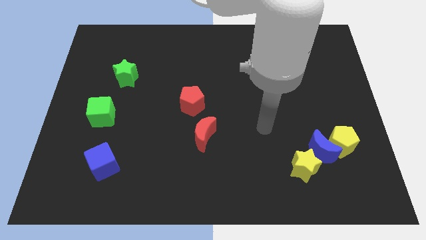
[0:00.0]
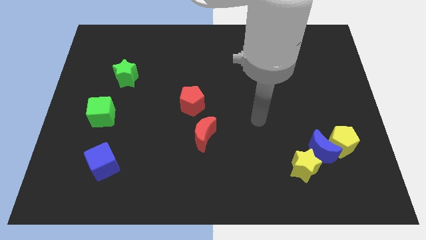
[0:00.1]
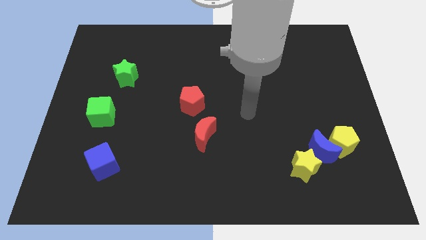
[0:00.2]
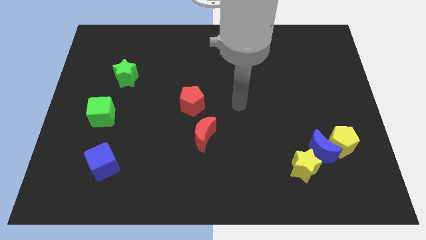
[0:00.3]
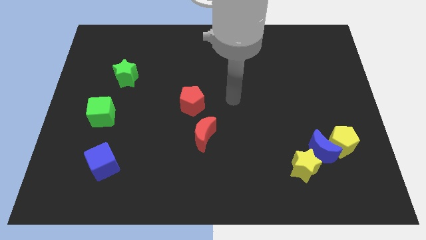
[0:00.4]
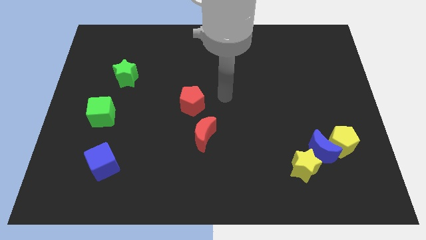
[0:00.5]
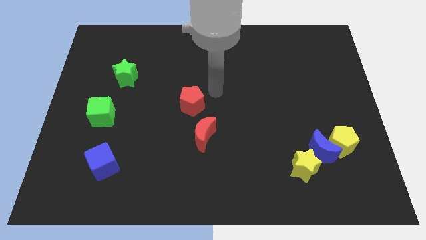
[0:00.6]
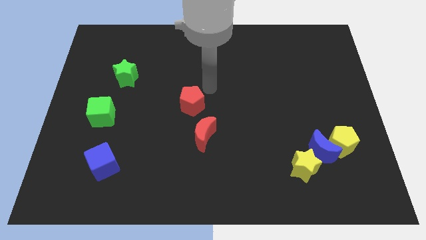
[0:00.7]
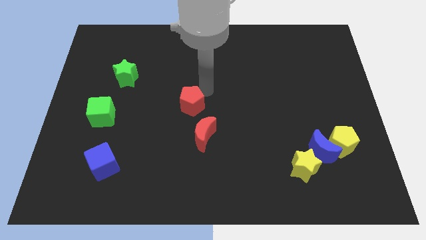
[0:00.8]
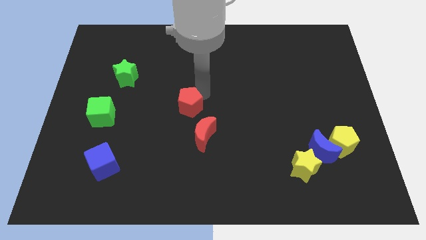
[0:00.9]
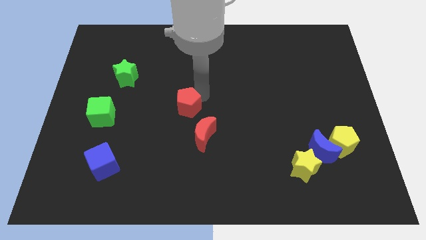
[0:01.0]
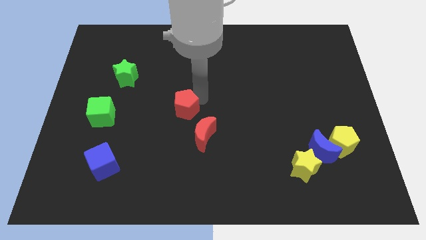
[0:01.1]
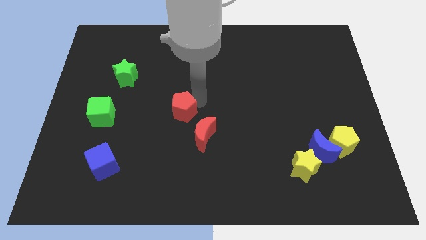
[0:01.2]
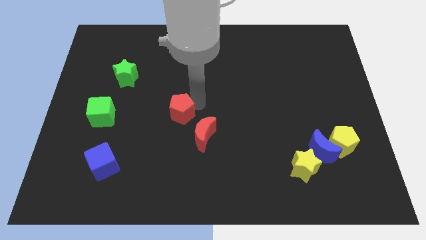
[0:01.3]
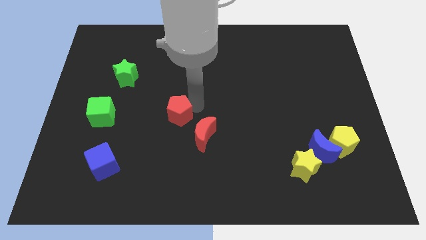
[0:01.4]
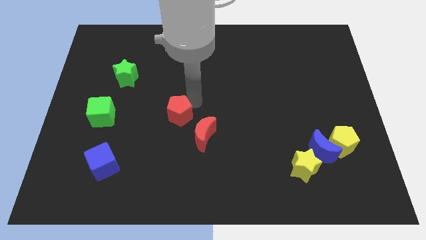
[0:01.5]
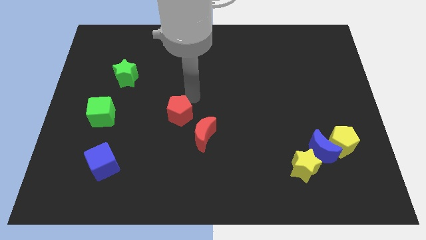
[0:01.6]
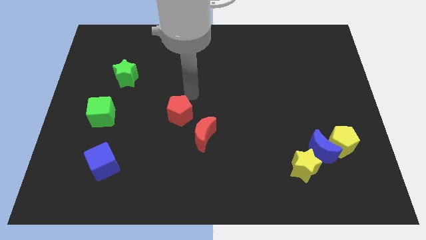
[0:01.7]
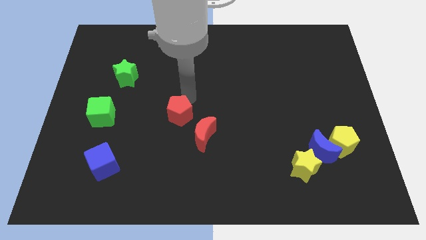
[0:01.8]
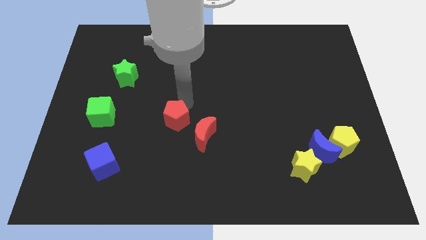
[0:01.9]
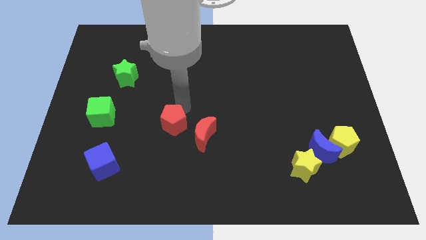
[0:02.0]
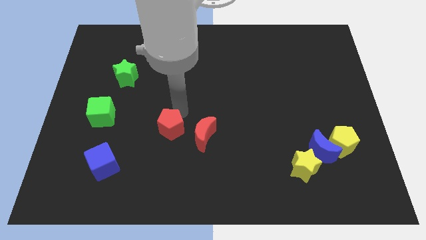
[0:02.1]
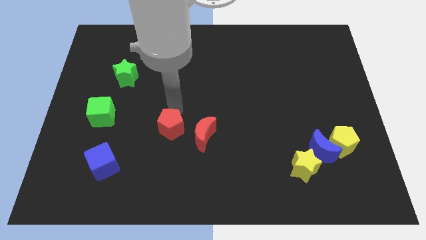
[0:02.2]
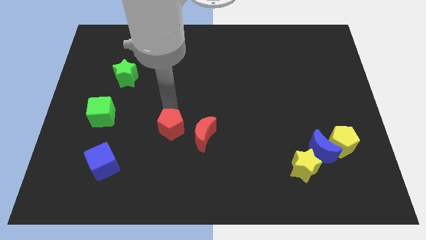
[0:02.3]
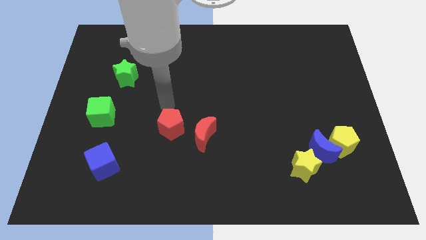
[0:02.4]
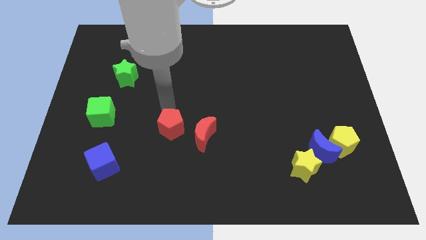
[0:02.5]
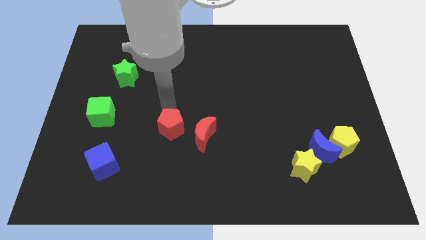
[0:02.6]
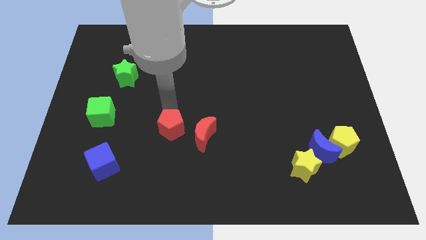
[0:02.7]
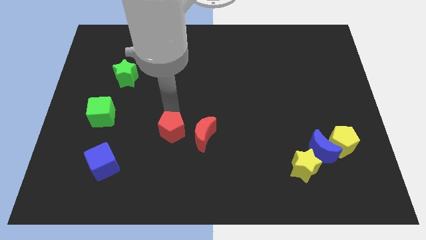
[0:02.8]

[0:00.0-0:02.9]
slide the red pentagon down somewhat

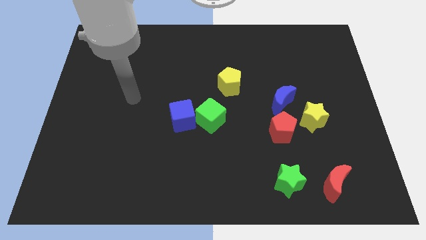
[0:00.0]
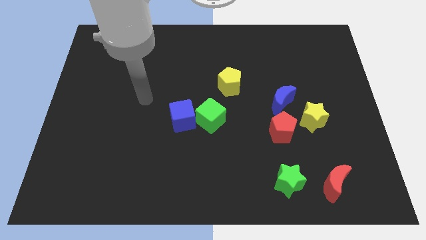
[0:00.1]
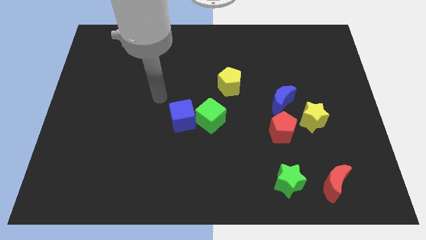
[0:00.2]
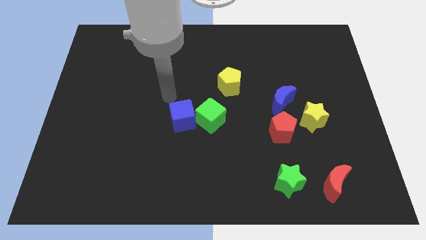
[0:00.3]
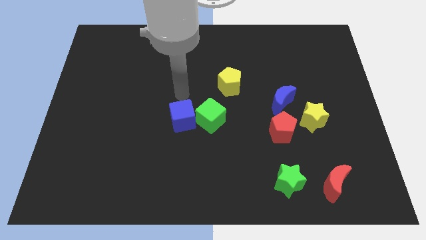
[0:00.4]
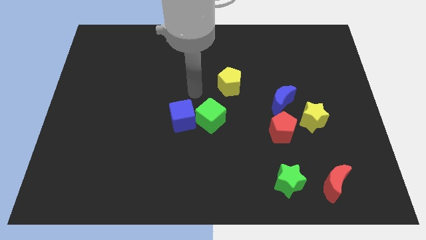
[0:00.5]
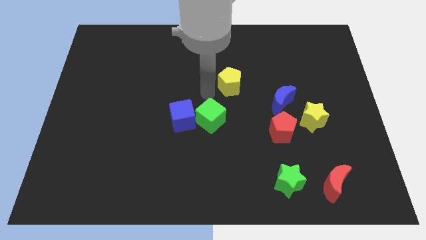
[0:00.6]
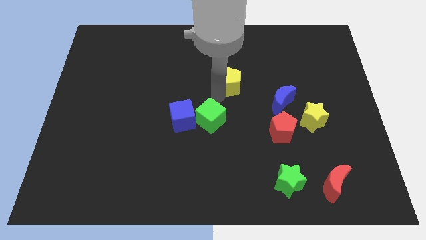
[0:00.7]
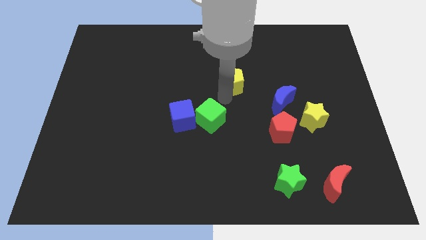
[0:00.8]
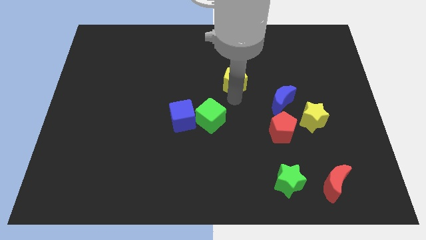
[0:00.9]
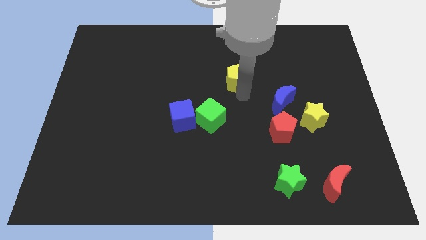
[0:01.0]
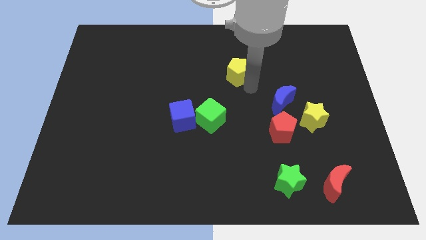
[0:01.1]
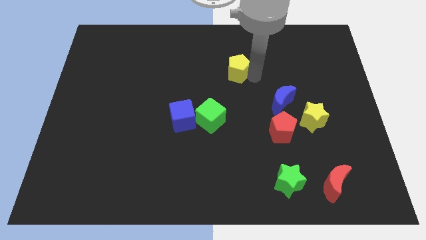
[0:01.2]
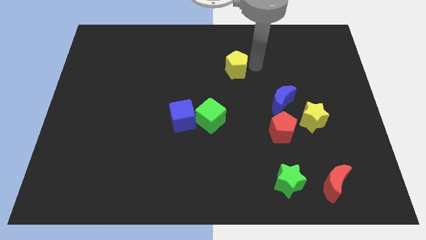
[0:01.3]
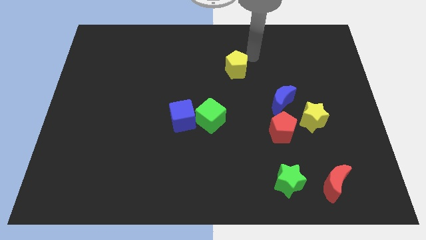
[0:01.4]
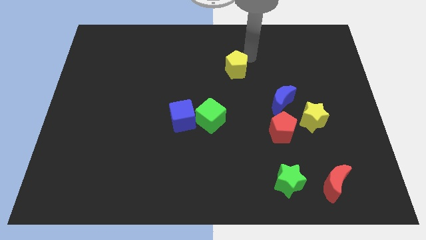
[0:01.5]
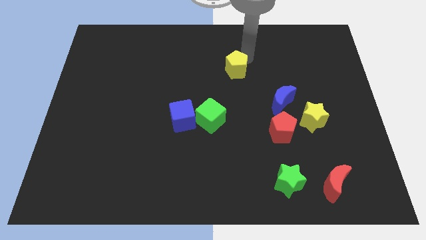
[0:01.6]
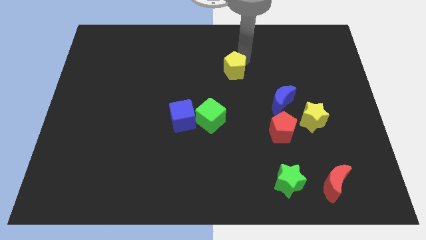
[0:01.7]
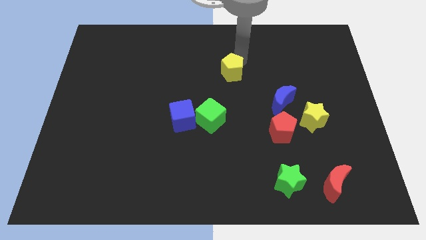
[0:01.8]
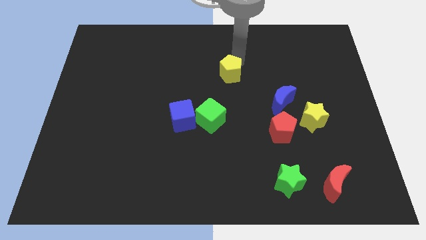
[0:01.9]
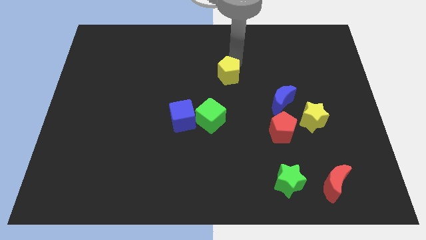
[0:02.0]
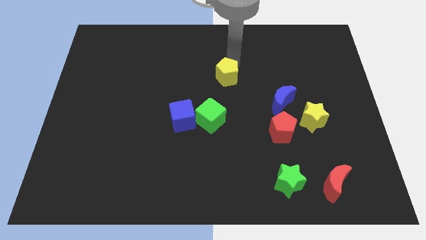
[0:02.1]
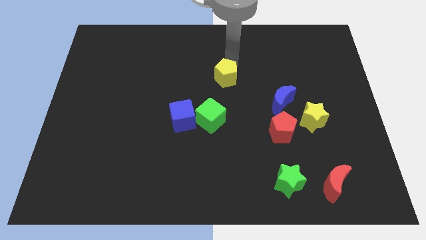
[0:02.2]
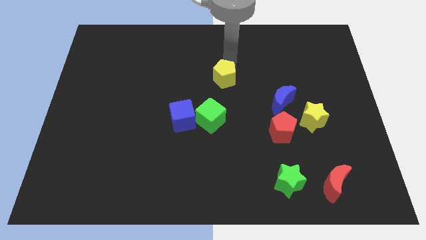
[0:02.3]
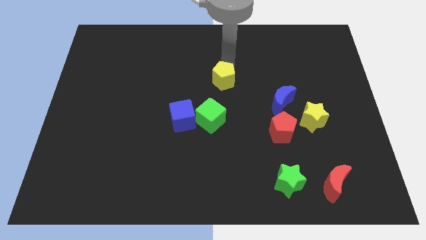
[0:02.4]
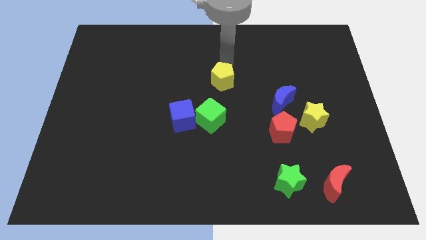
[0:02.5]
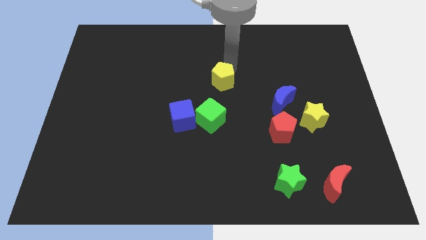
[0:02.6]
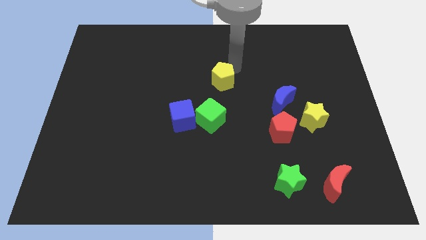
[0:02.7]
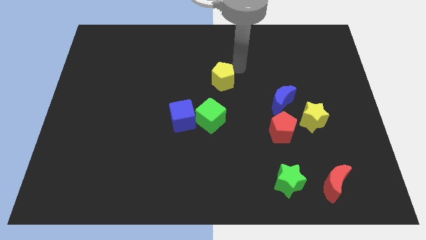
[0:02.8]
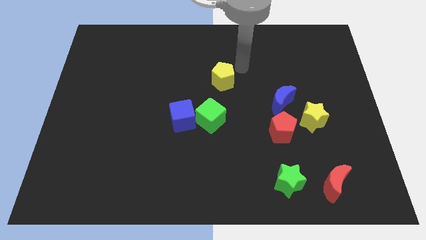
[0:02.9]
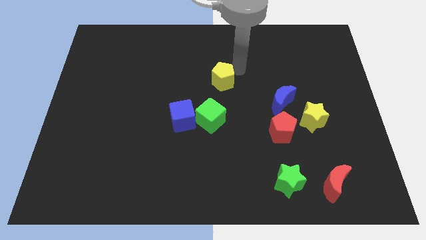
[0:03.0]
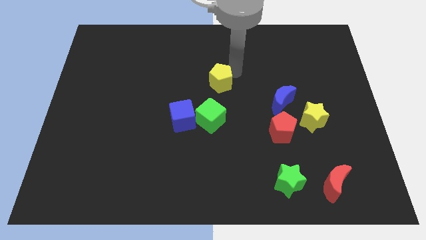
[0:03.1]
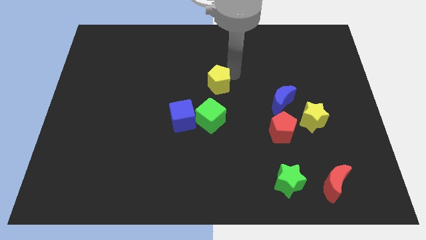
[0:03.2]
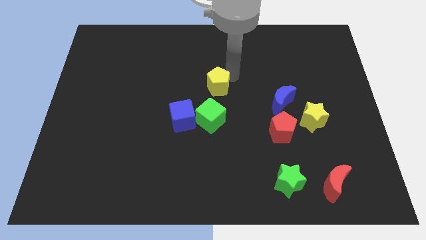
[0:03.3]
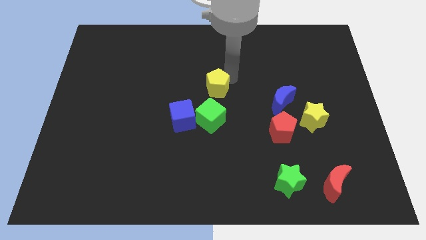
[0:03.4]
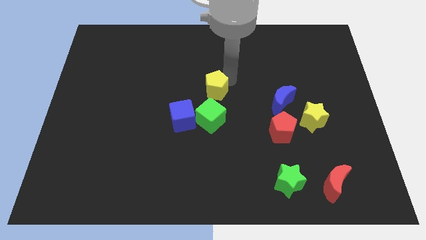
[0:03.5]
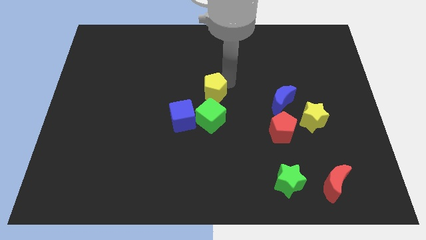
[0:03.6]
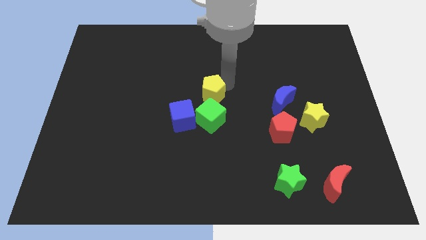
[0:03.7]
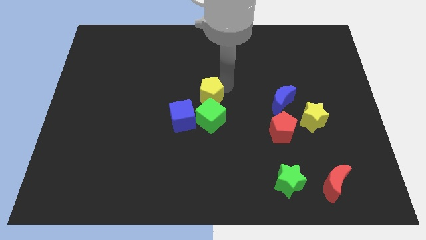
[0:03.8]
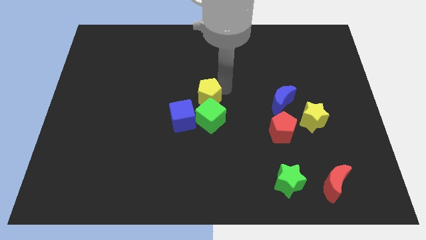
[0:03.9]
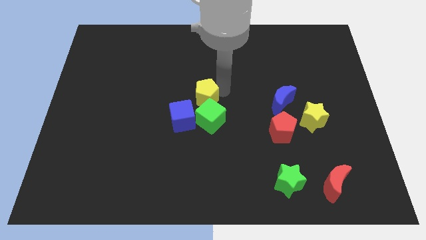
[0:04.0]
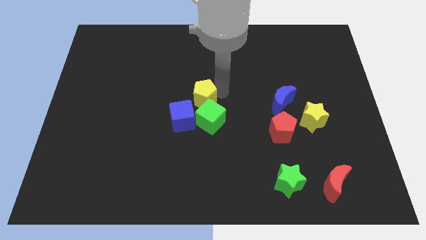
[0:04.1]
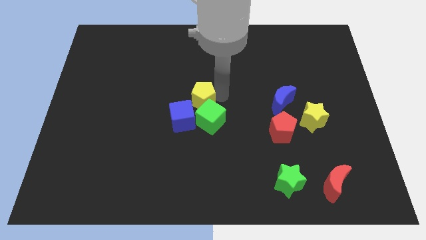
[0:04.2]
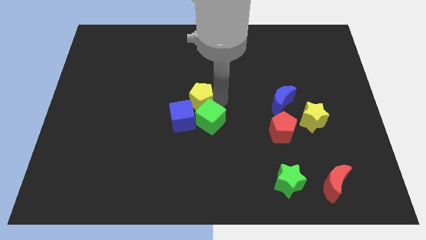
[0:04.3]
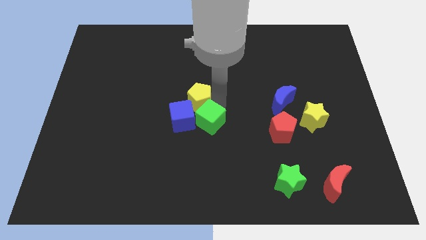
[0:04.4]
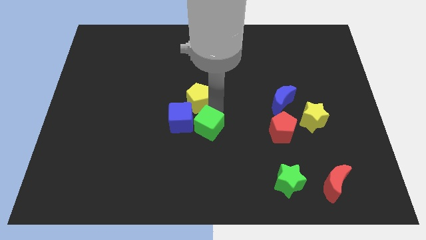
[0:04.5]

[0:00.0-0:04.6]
slide the yellow pentagon somewhat left

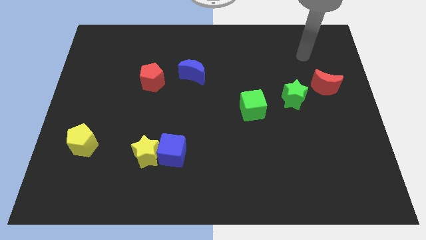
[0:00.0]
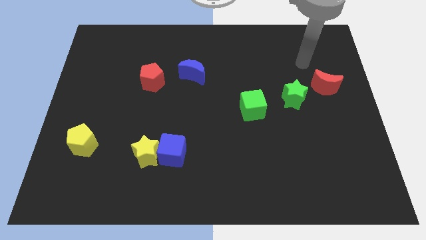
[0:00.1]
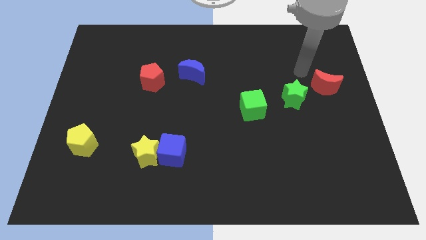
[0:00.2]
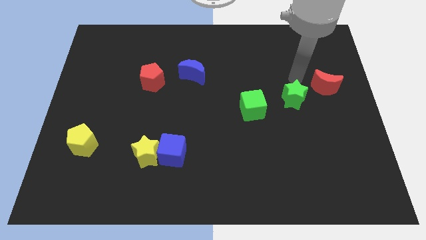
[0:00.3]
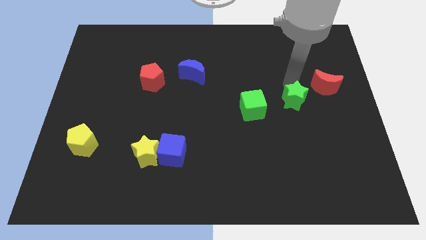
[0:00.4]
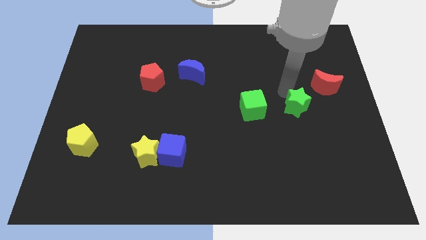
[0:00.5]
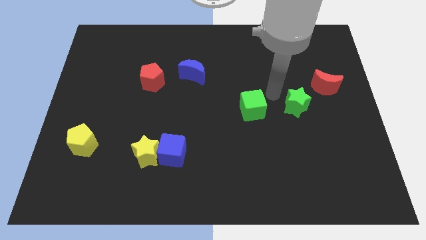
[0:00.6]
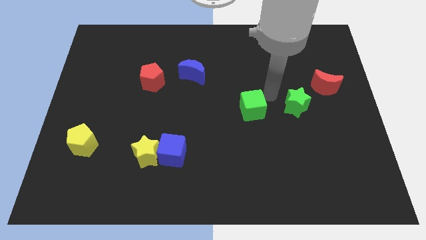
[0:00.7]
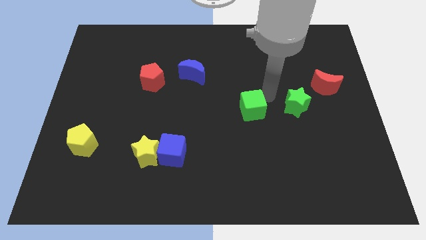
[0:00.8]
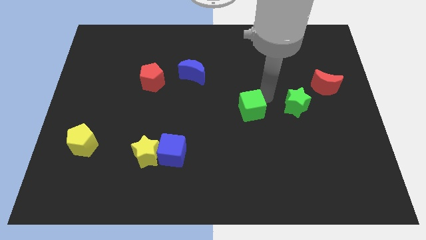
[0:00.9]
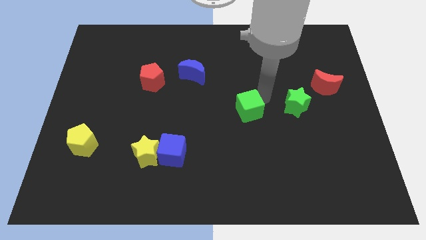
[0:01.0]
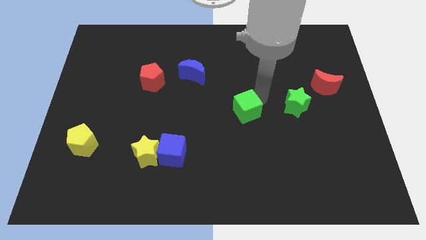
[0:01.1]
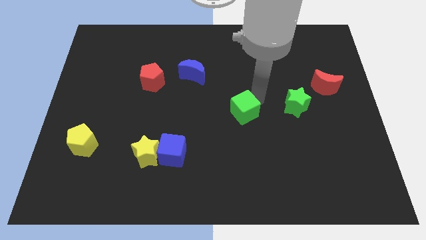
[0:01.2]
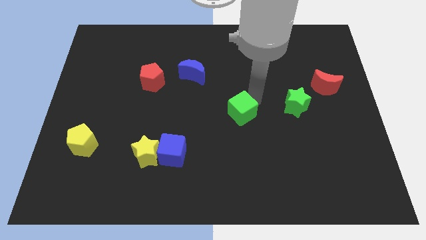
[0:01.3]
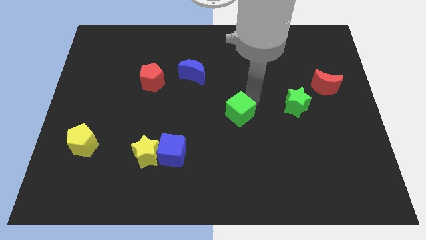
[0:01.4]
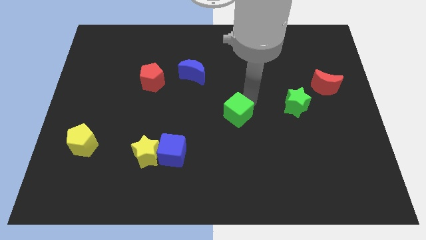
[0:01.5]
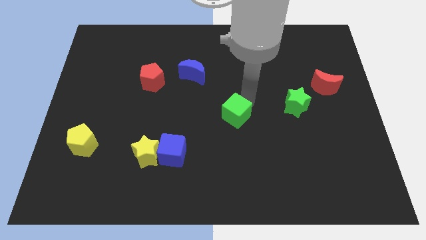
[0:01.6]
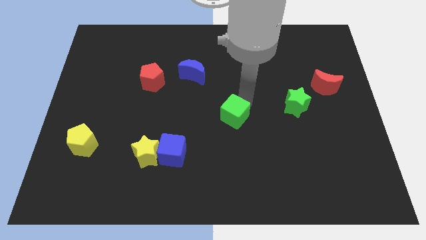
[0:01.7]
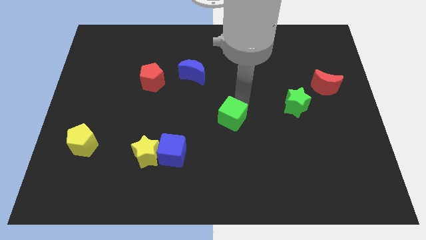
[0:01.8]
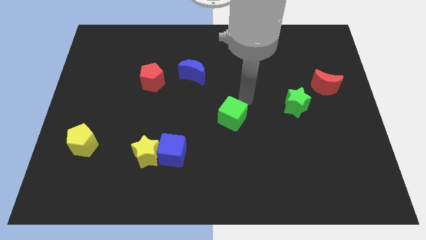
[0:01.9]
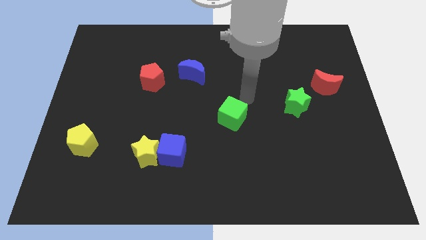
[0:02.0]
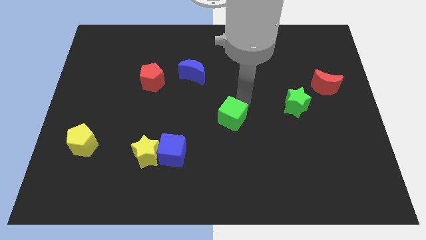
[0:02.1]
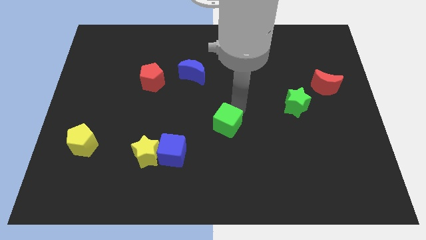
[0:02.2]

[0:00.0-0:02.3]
move the green cube downwards and to the left a little bit
